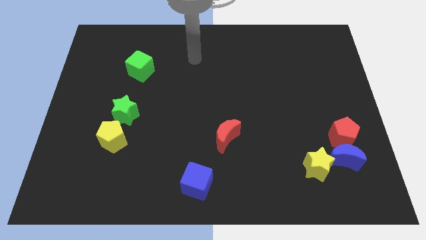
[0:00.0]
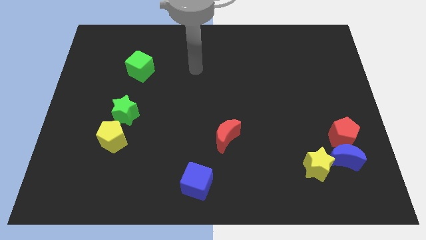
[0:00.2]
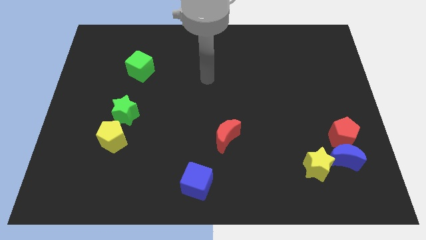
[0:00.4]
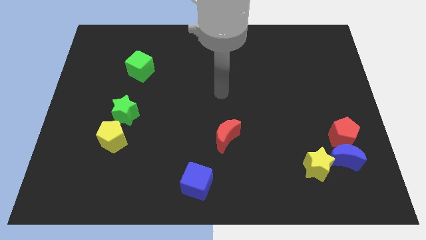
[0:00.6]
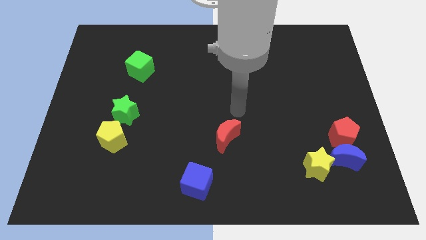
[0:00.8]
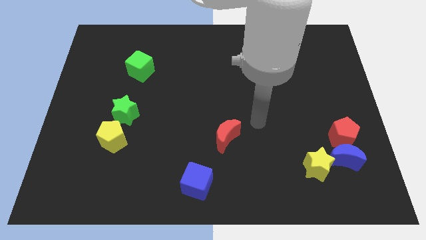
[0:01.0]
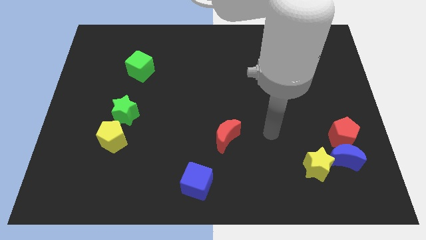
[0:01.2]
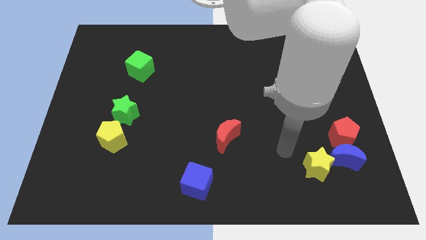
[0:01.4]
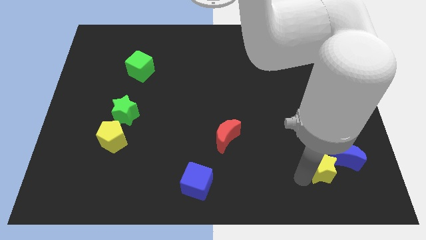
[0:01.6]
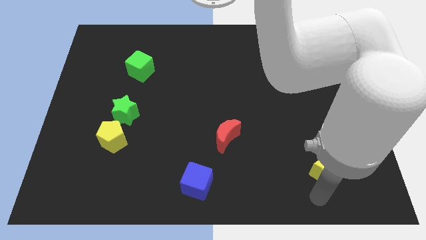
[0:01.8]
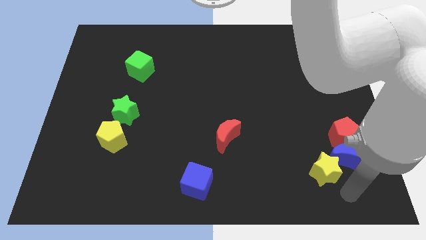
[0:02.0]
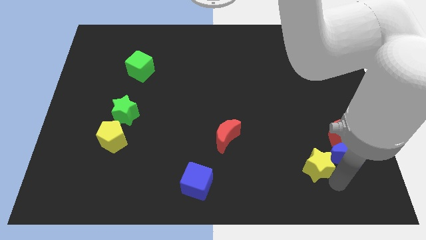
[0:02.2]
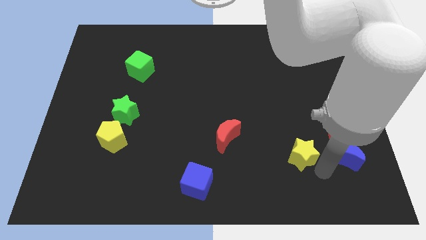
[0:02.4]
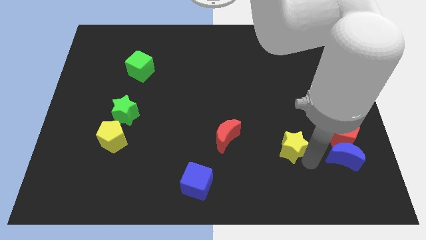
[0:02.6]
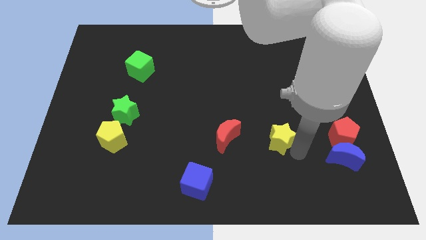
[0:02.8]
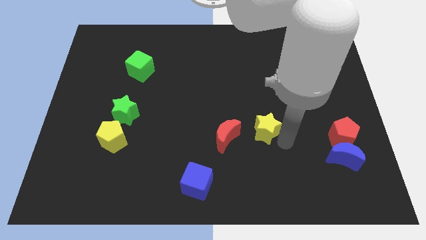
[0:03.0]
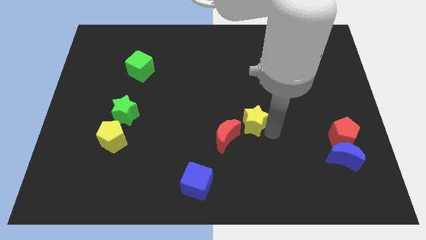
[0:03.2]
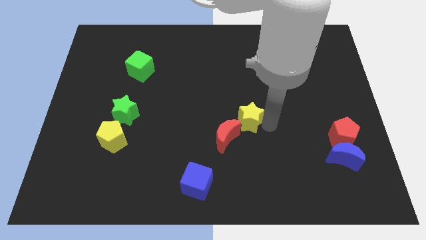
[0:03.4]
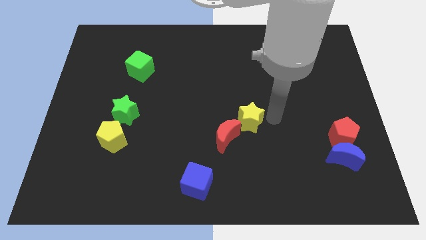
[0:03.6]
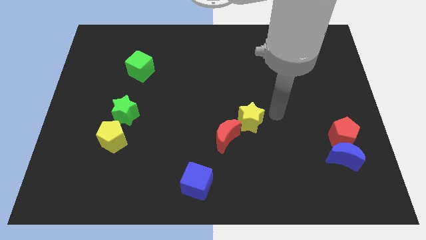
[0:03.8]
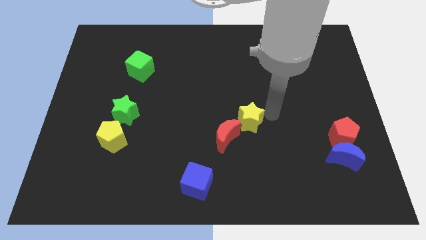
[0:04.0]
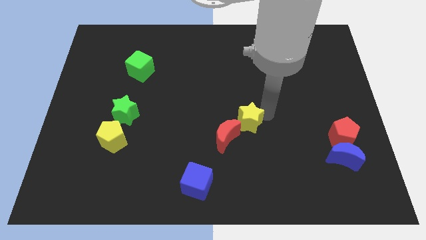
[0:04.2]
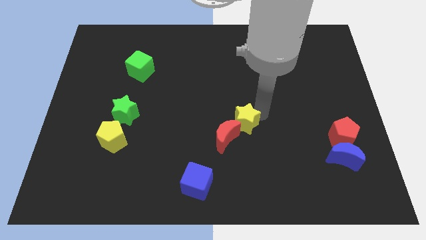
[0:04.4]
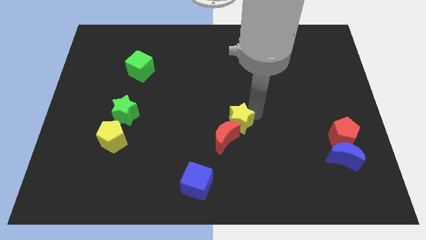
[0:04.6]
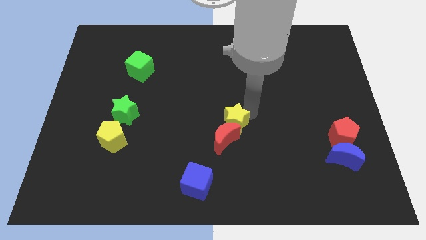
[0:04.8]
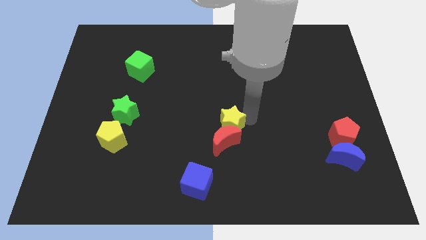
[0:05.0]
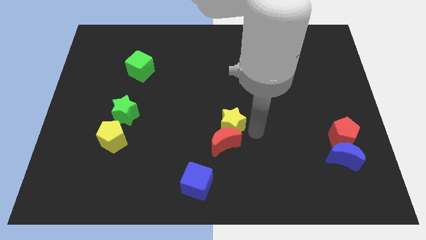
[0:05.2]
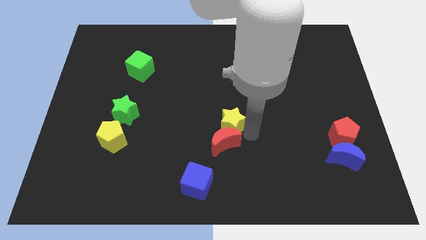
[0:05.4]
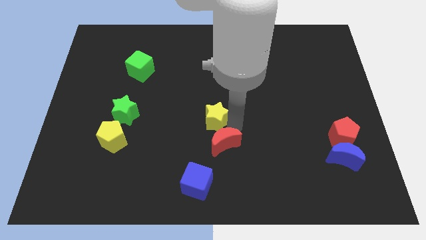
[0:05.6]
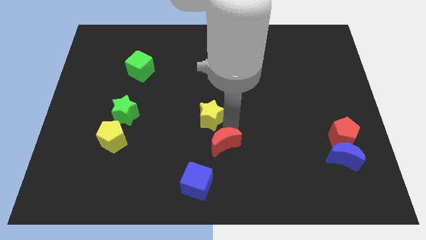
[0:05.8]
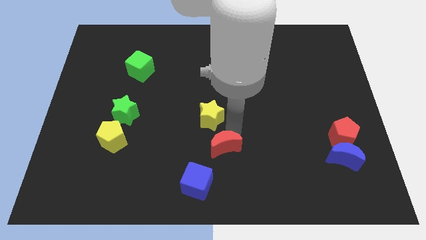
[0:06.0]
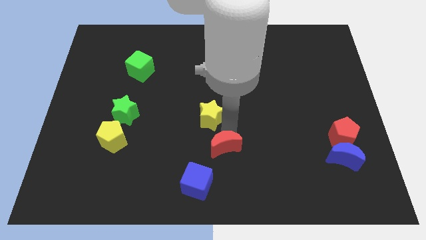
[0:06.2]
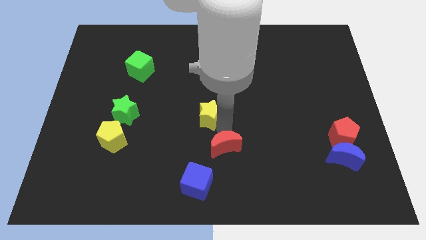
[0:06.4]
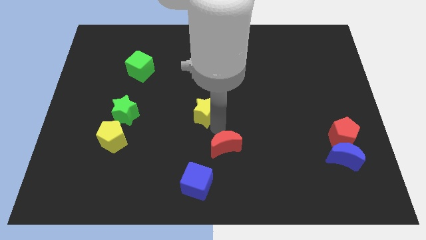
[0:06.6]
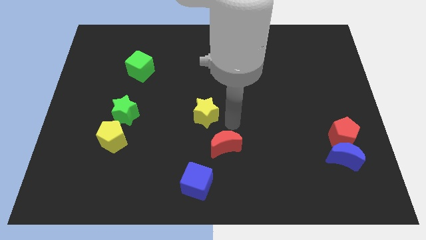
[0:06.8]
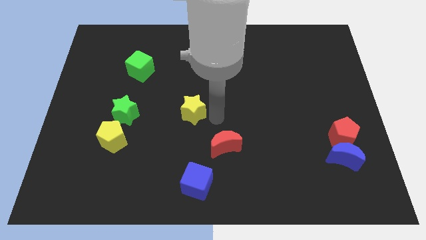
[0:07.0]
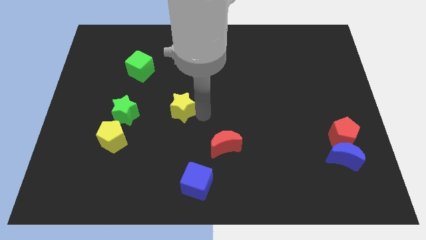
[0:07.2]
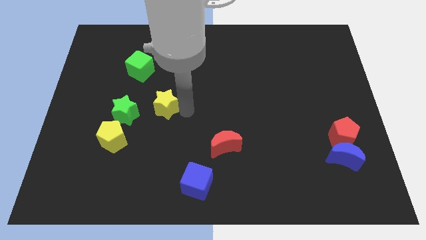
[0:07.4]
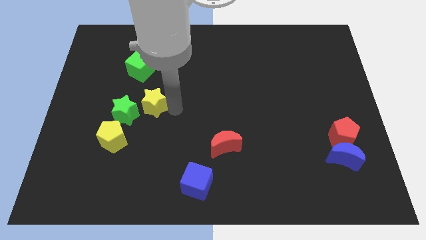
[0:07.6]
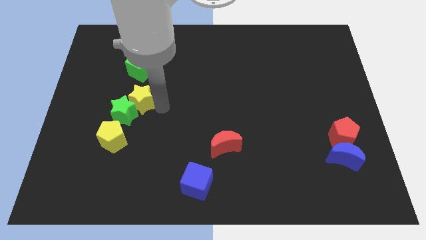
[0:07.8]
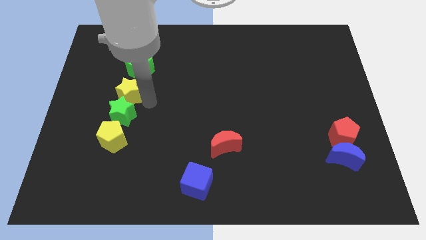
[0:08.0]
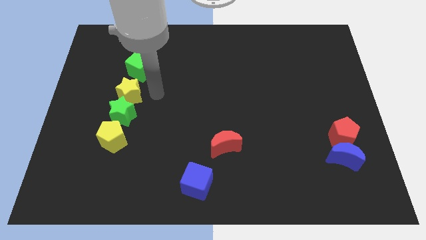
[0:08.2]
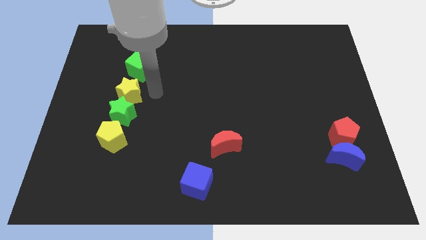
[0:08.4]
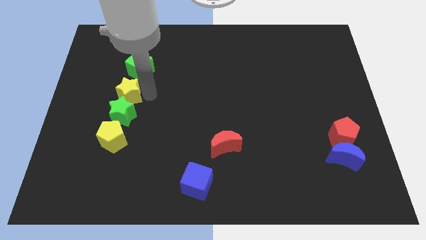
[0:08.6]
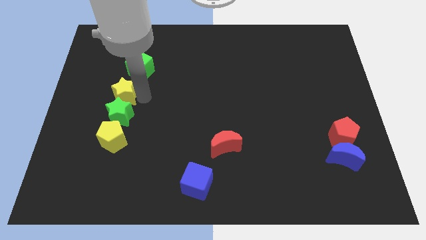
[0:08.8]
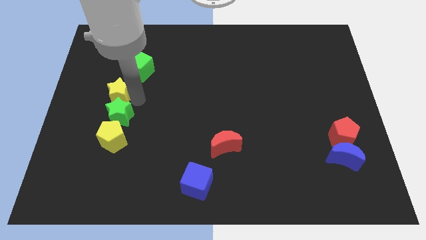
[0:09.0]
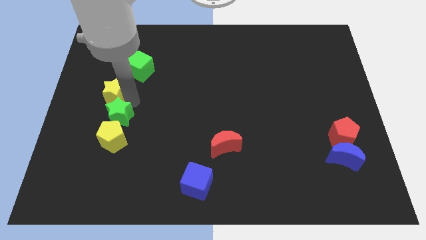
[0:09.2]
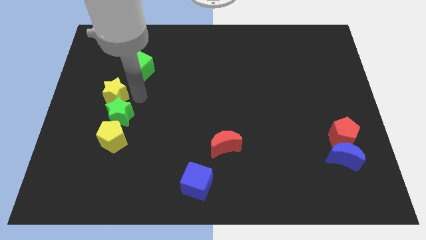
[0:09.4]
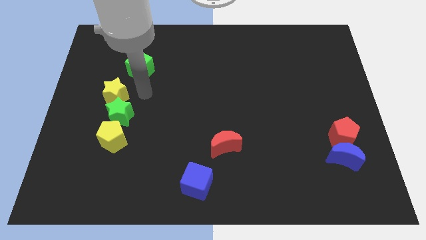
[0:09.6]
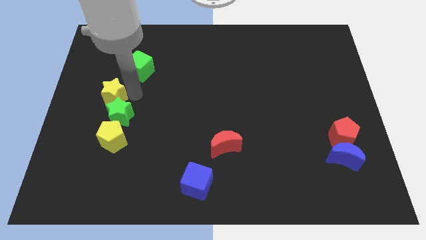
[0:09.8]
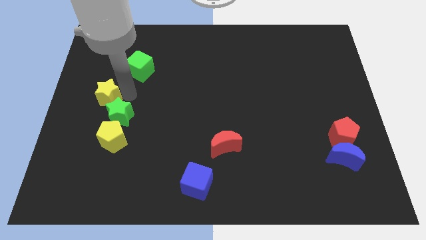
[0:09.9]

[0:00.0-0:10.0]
put the yellow star to the left side
